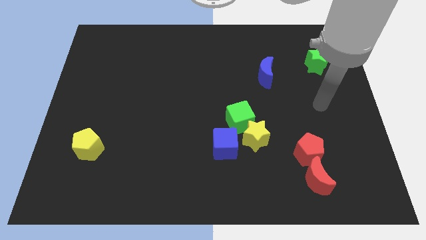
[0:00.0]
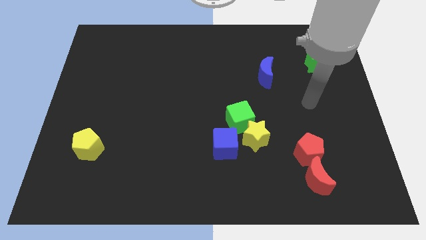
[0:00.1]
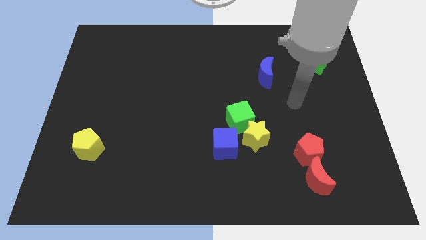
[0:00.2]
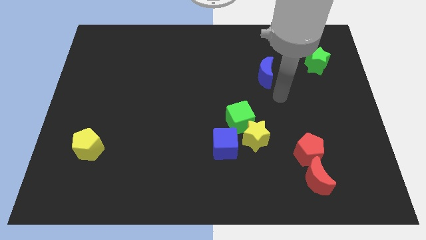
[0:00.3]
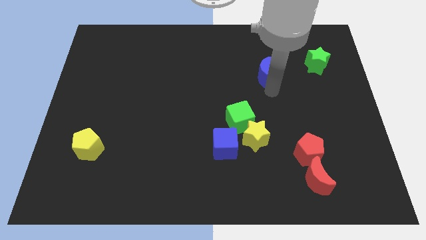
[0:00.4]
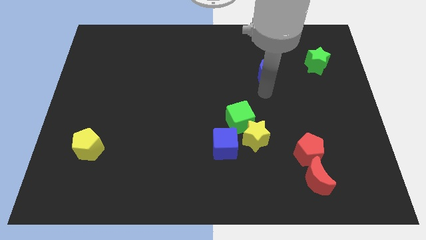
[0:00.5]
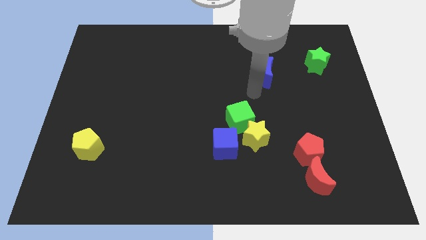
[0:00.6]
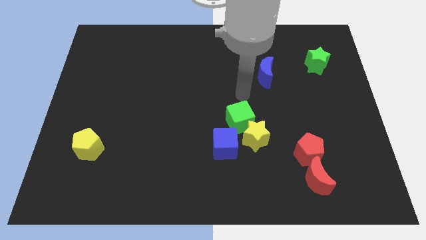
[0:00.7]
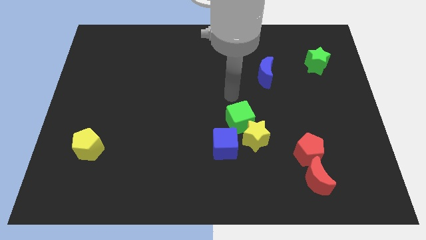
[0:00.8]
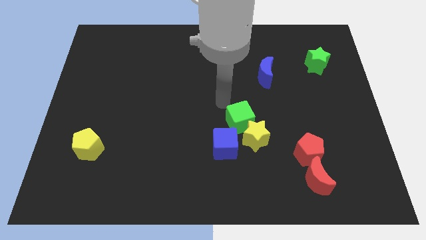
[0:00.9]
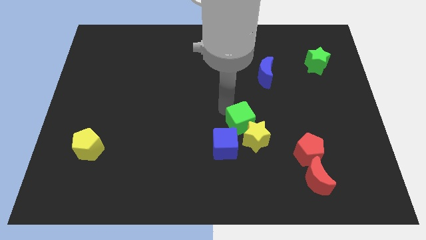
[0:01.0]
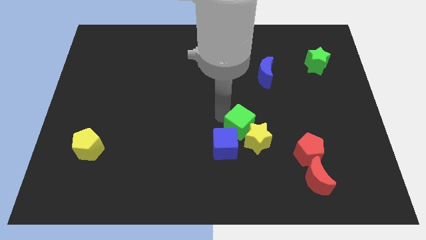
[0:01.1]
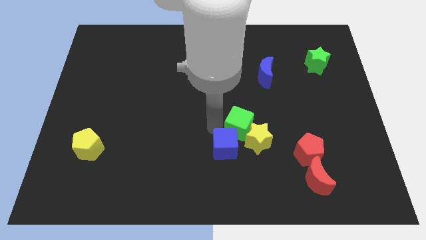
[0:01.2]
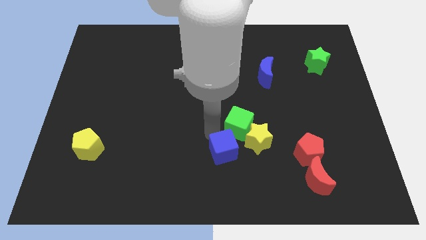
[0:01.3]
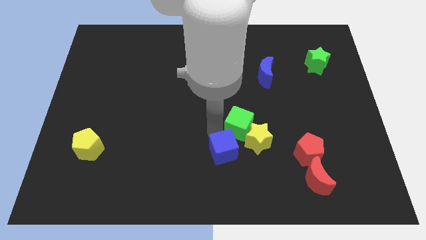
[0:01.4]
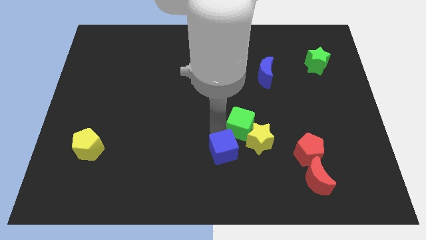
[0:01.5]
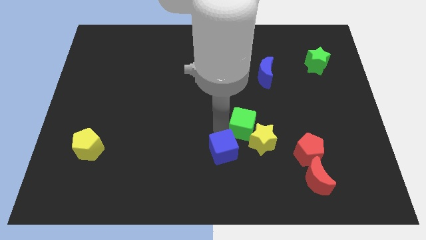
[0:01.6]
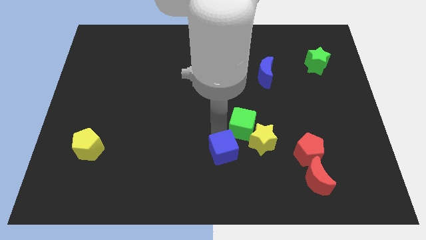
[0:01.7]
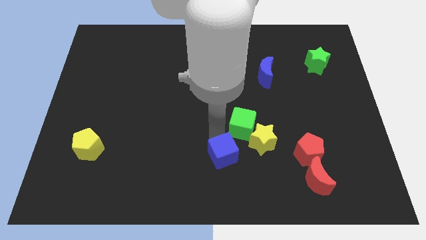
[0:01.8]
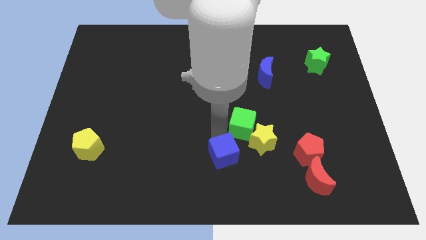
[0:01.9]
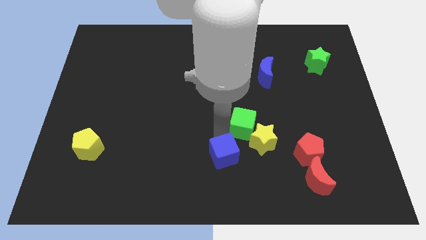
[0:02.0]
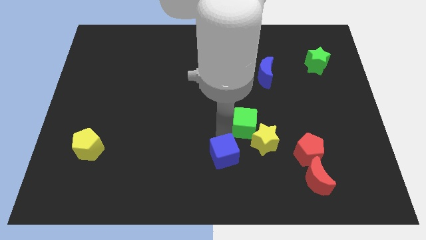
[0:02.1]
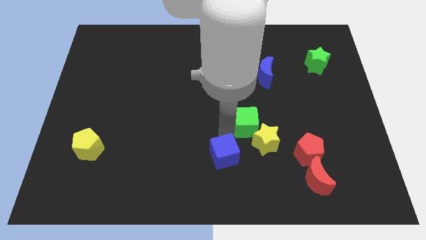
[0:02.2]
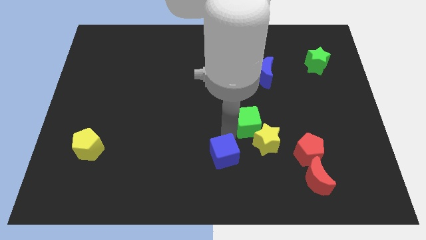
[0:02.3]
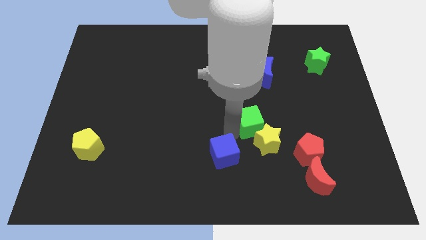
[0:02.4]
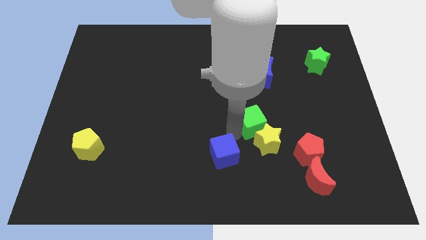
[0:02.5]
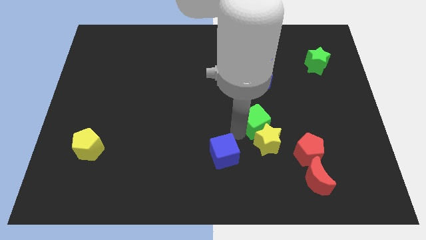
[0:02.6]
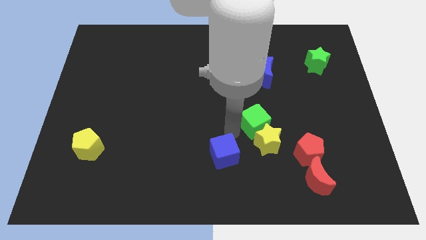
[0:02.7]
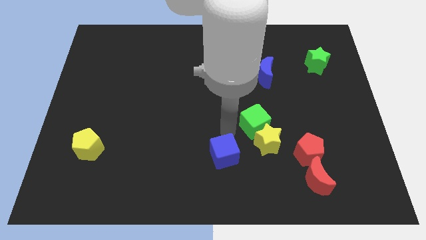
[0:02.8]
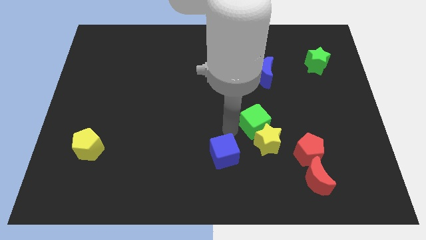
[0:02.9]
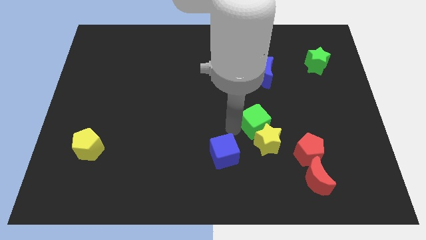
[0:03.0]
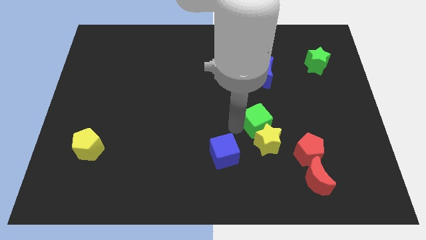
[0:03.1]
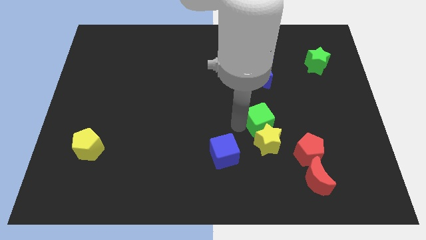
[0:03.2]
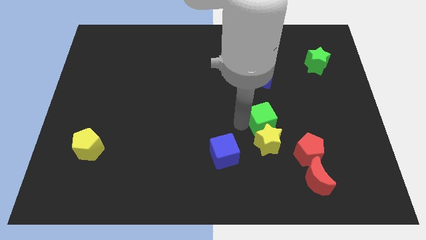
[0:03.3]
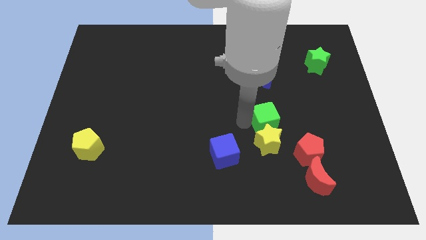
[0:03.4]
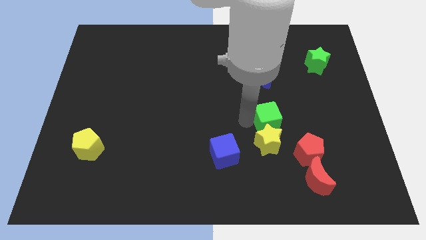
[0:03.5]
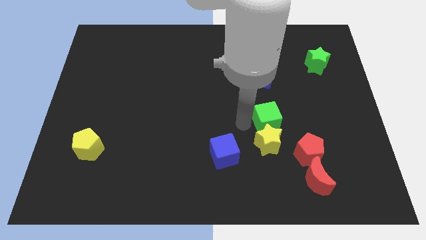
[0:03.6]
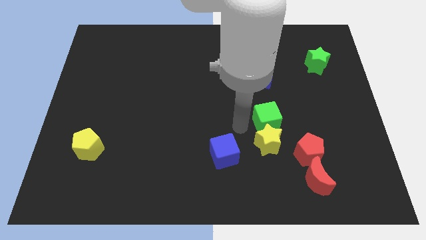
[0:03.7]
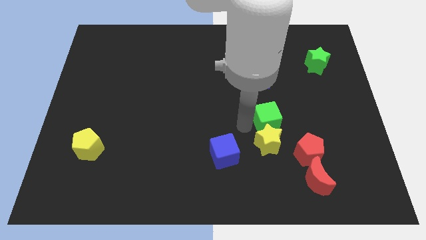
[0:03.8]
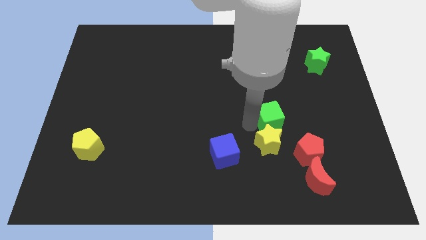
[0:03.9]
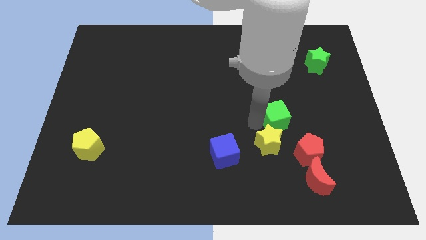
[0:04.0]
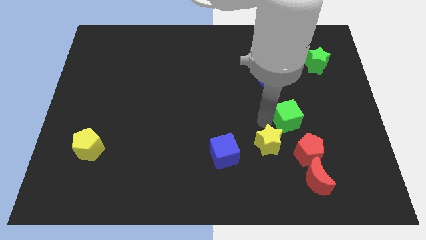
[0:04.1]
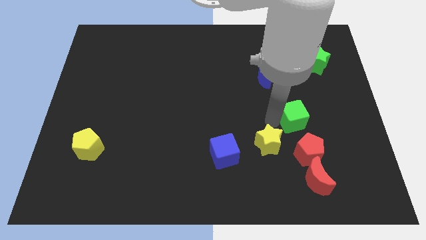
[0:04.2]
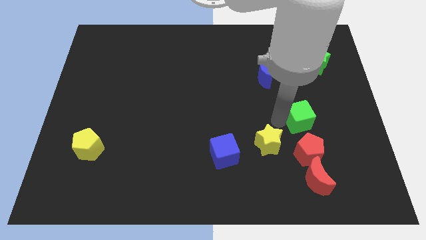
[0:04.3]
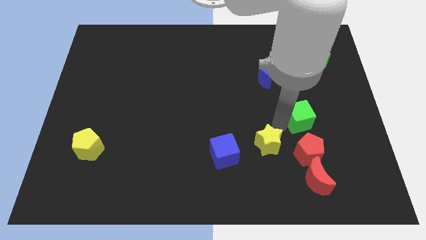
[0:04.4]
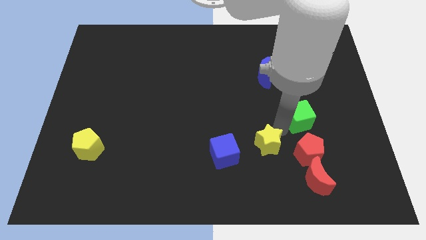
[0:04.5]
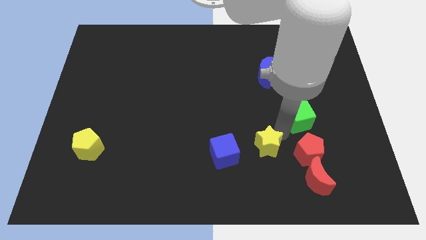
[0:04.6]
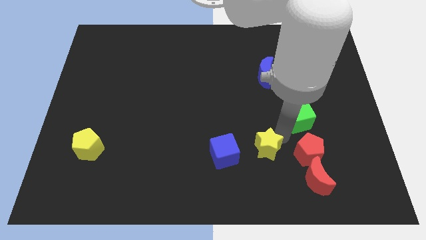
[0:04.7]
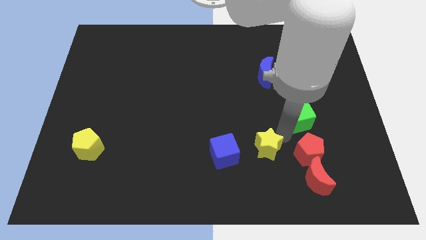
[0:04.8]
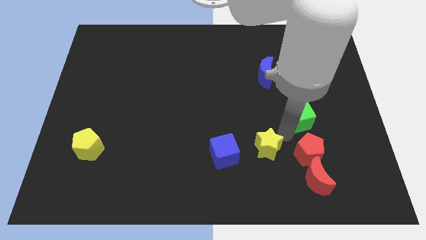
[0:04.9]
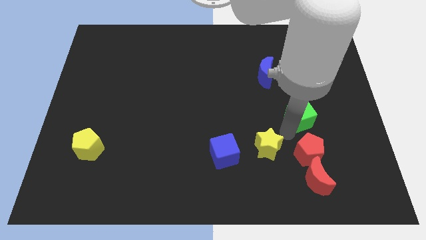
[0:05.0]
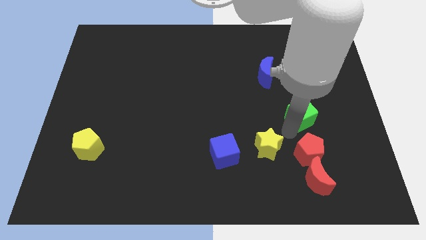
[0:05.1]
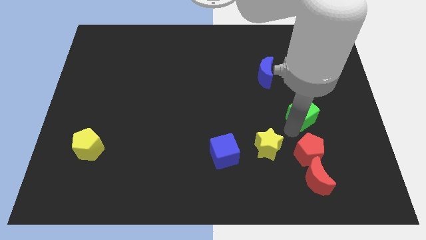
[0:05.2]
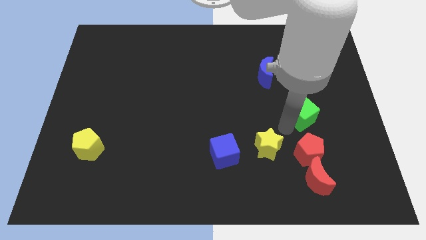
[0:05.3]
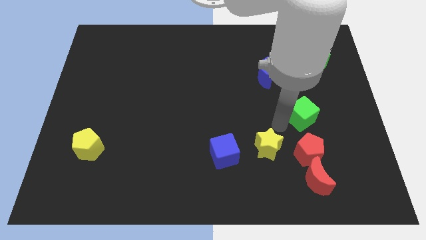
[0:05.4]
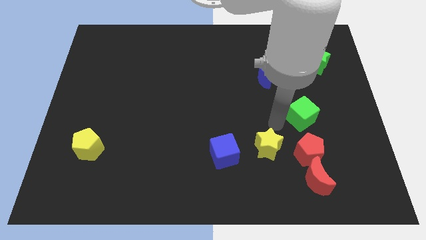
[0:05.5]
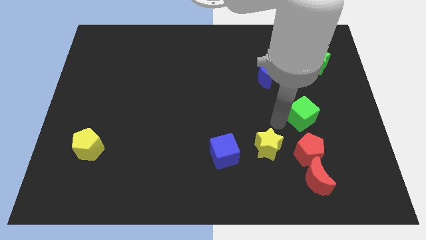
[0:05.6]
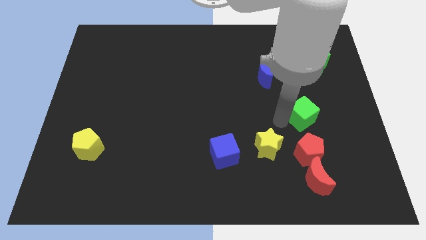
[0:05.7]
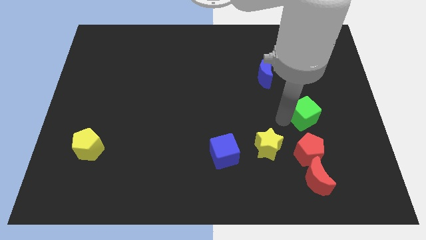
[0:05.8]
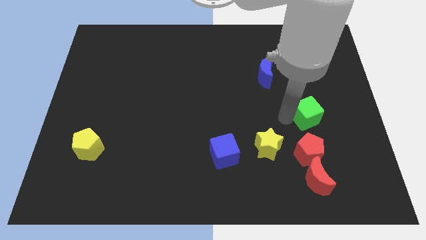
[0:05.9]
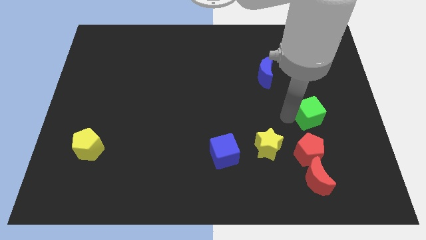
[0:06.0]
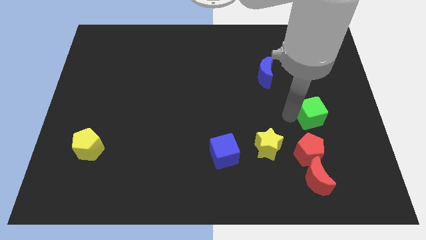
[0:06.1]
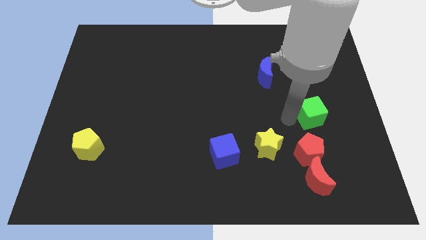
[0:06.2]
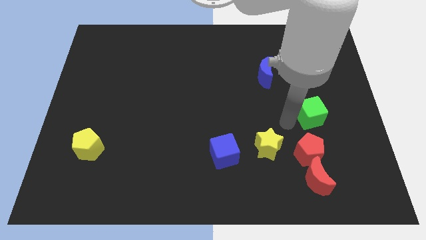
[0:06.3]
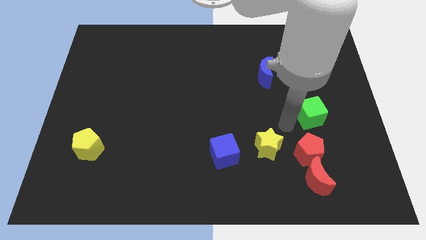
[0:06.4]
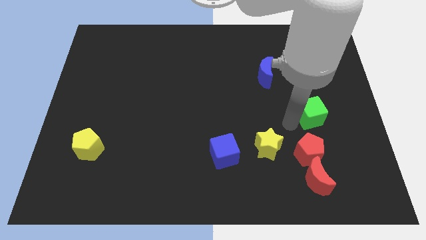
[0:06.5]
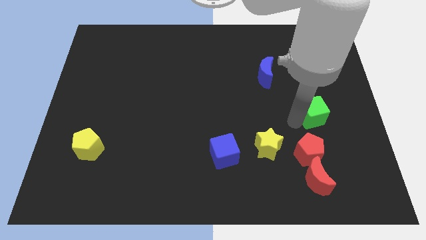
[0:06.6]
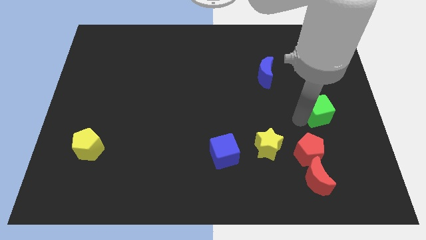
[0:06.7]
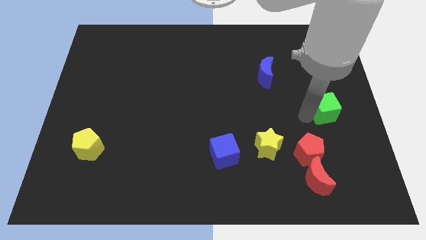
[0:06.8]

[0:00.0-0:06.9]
put the green cube to the right side

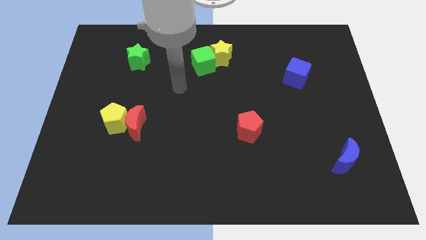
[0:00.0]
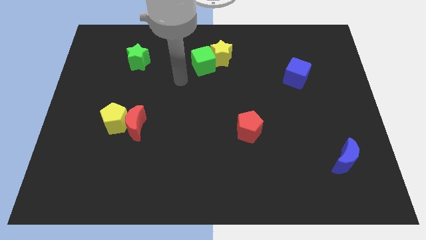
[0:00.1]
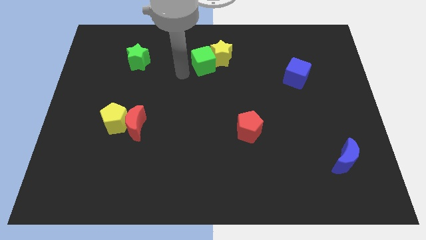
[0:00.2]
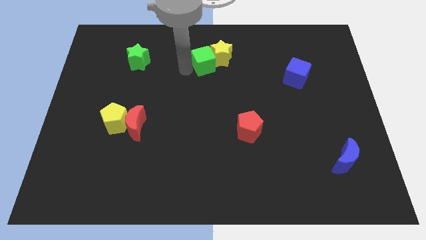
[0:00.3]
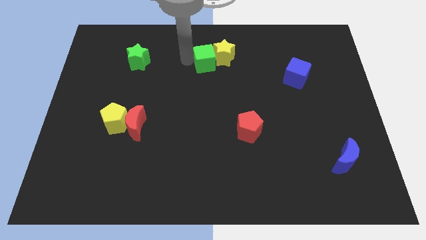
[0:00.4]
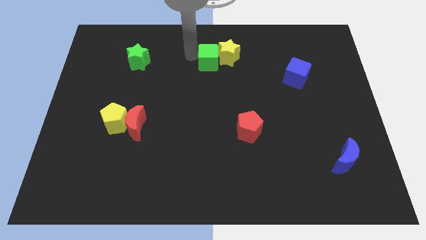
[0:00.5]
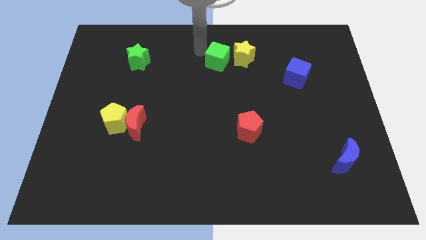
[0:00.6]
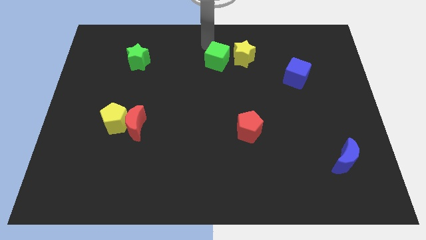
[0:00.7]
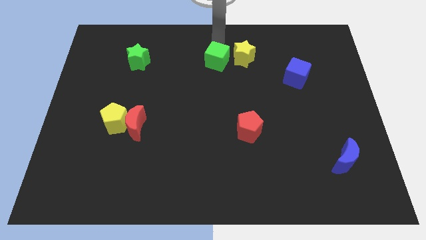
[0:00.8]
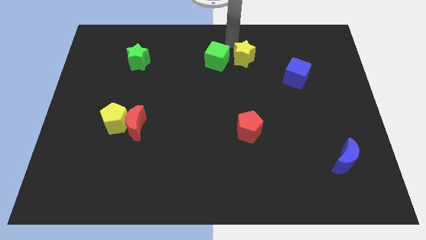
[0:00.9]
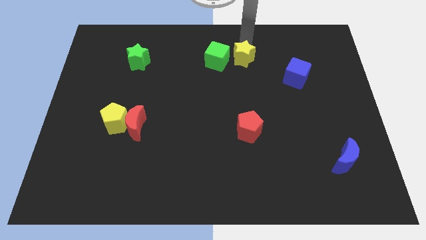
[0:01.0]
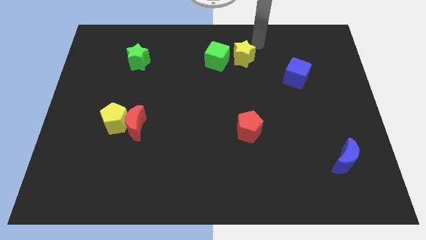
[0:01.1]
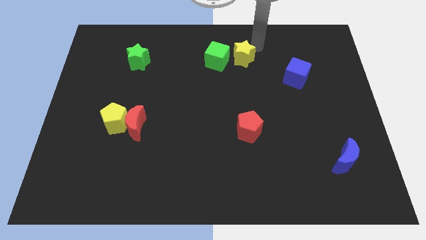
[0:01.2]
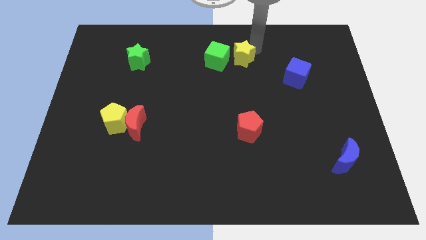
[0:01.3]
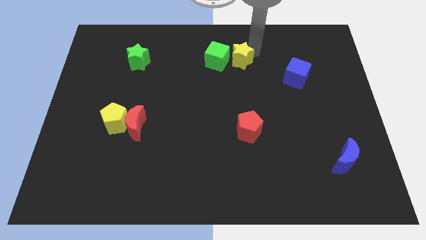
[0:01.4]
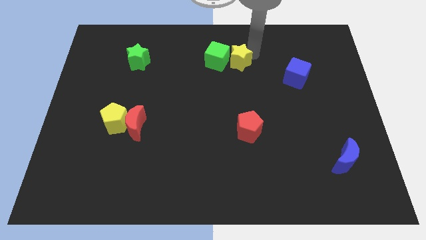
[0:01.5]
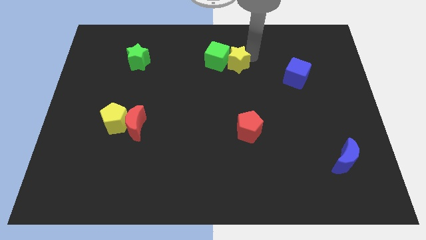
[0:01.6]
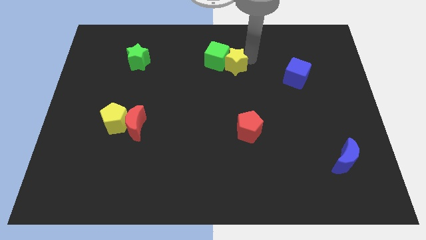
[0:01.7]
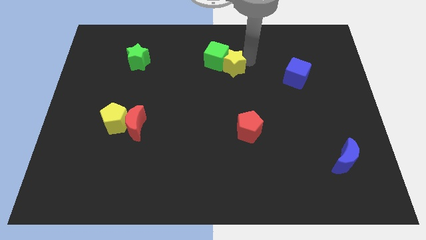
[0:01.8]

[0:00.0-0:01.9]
slide the yellow star to the center
